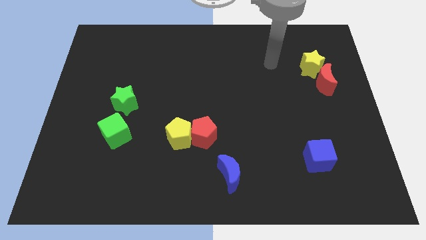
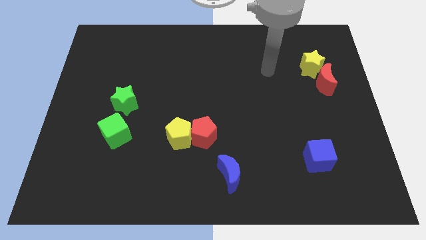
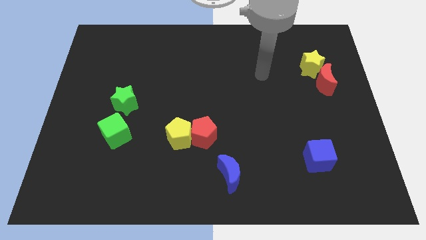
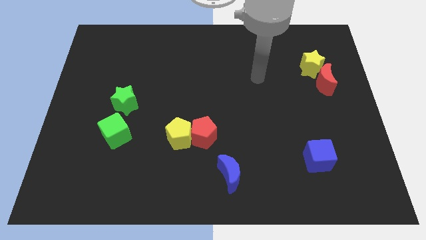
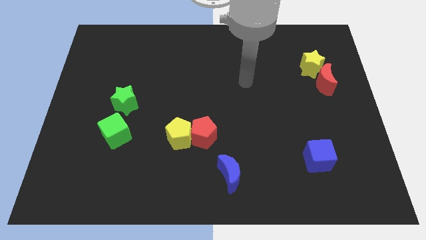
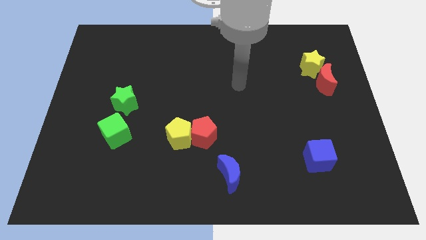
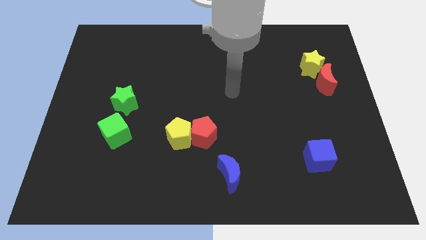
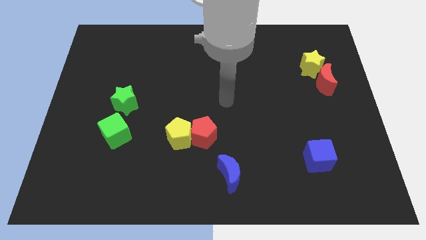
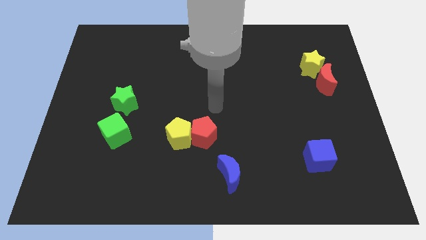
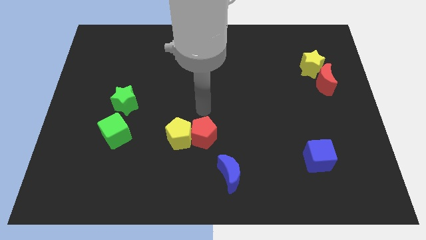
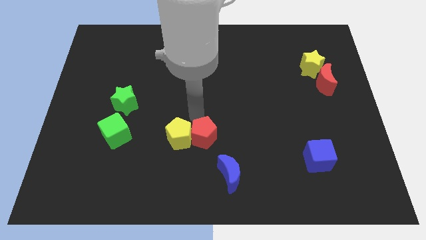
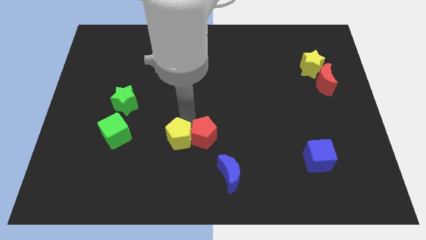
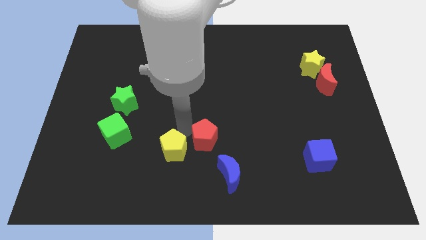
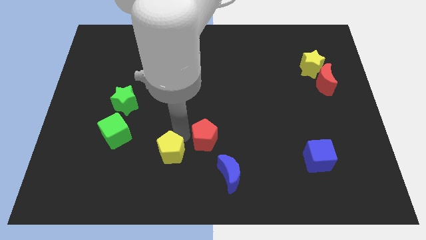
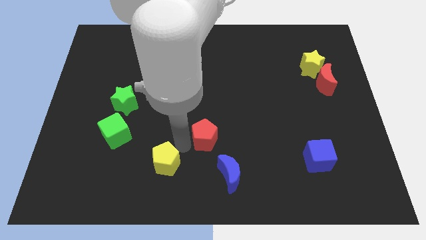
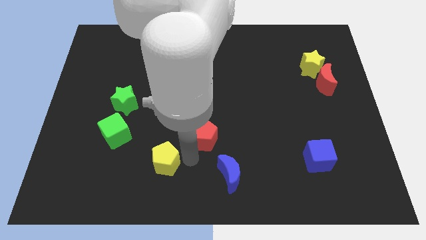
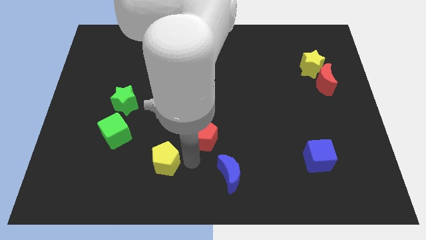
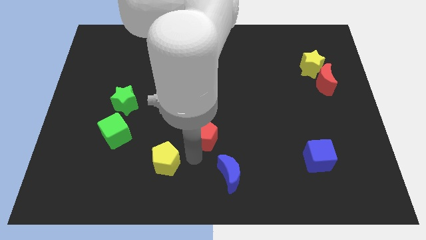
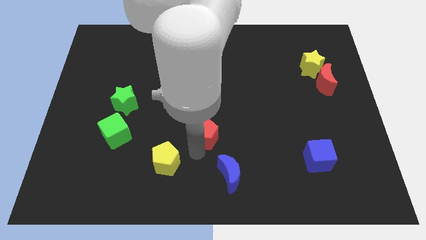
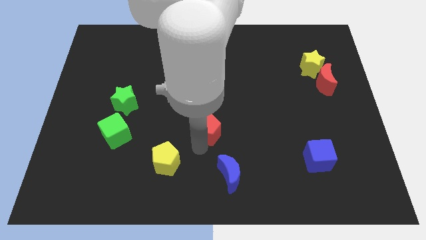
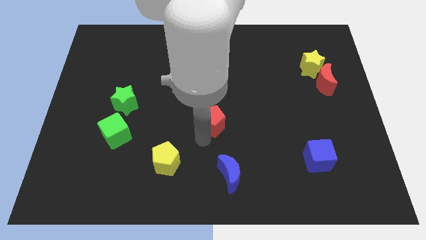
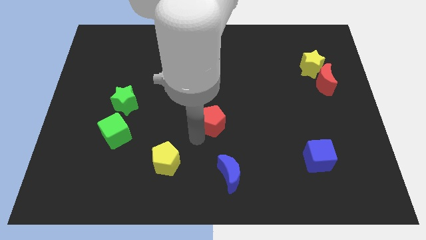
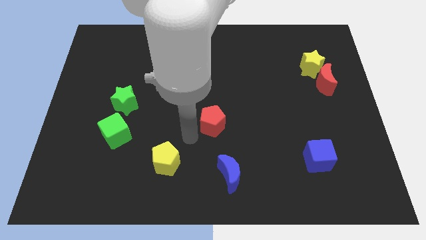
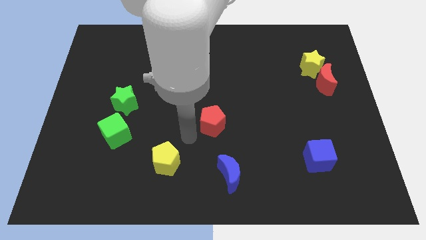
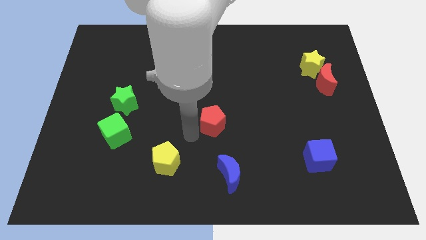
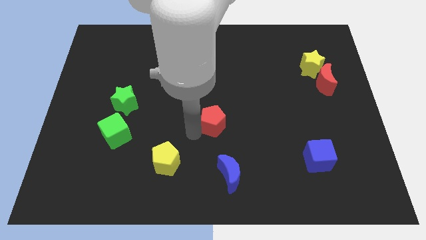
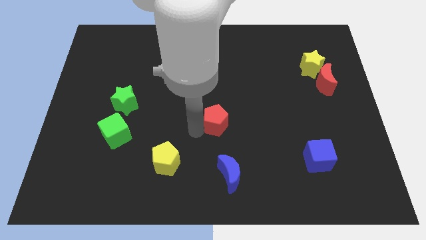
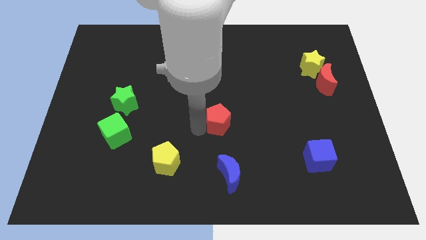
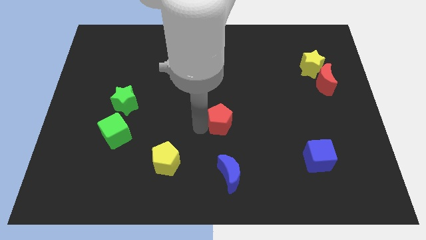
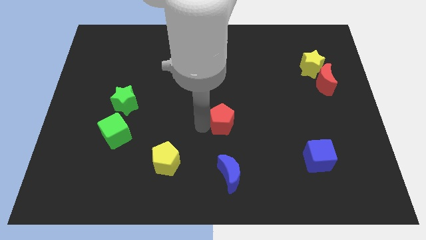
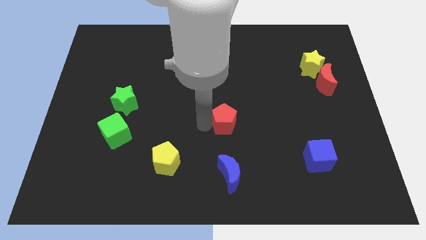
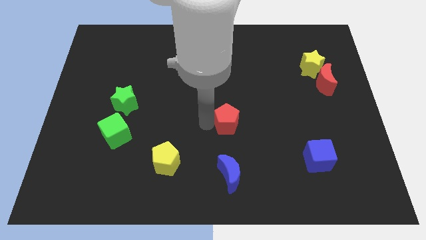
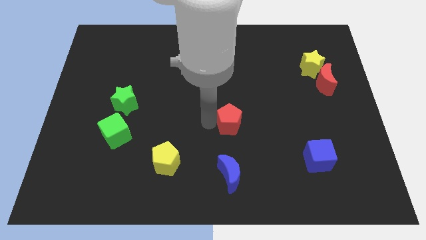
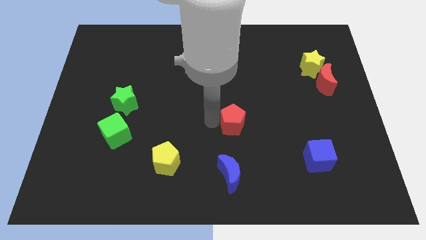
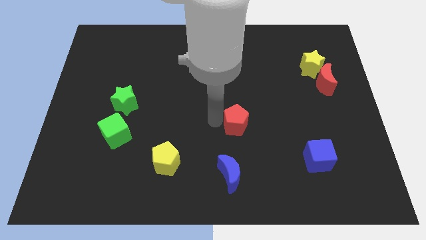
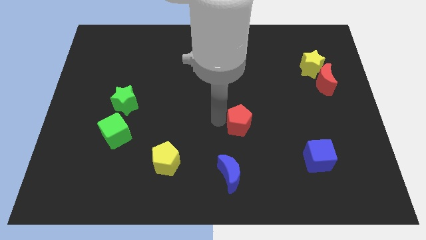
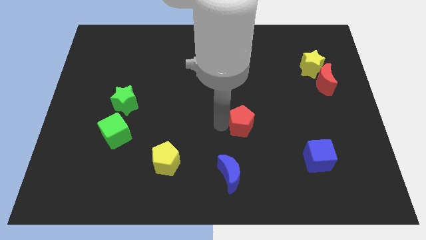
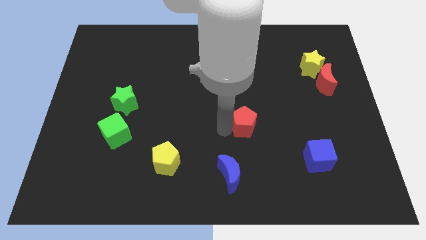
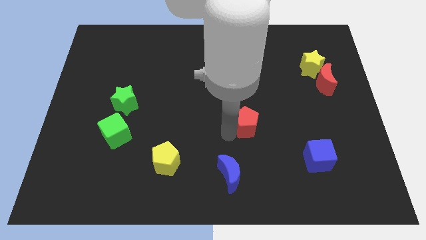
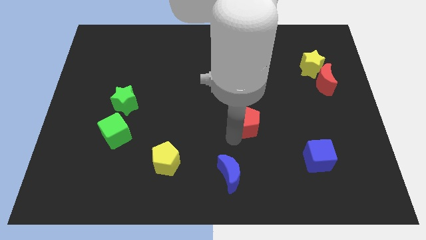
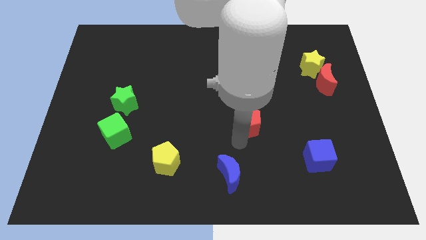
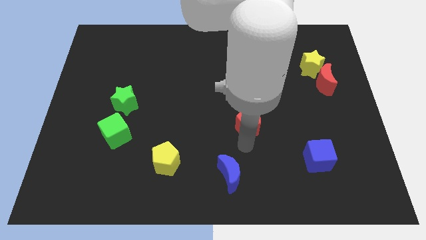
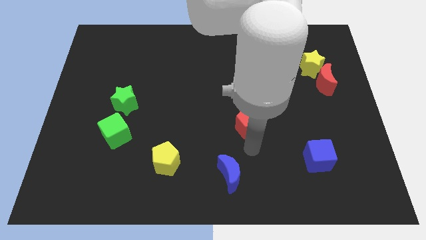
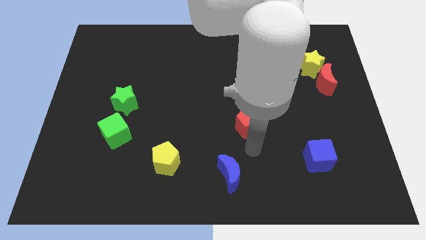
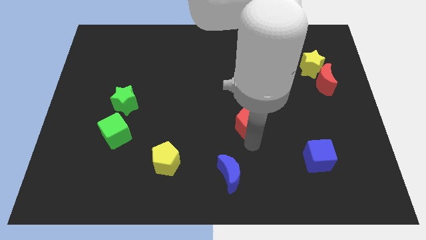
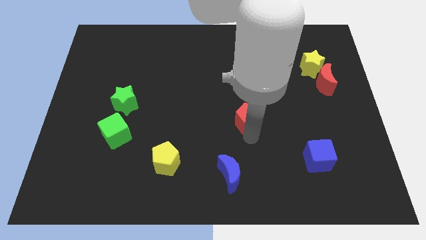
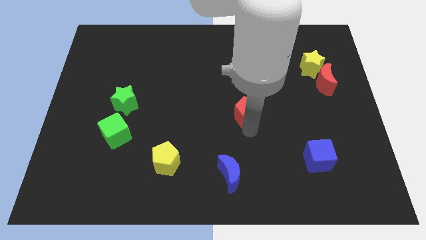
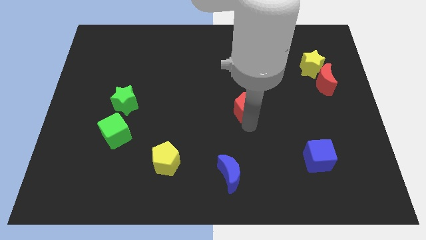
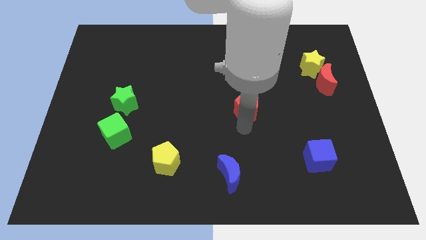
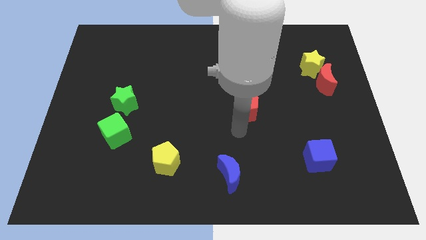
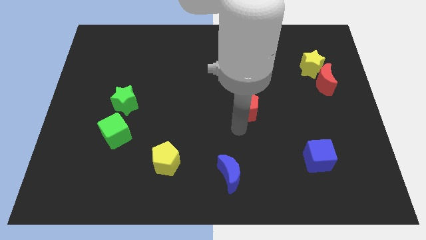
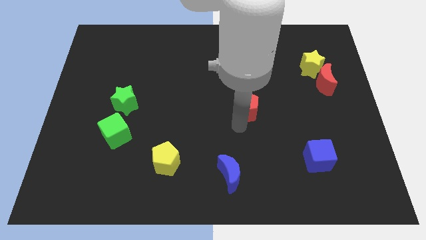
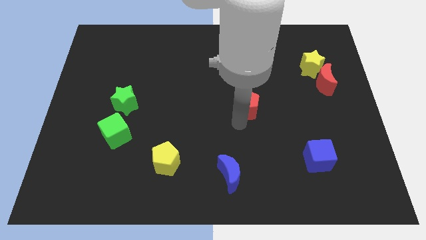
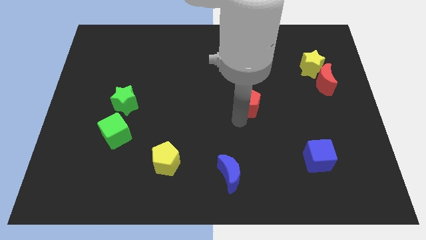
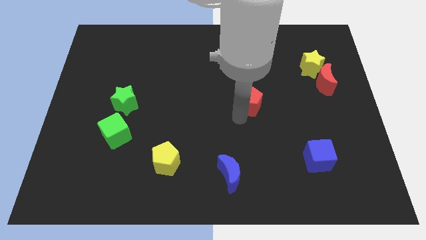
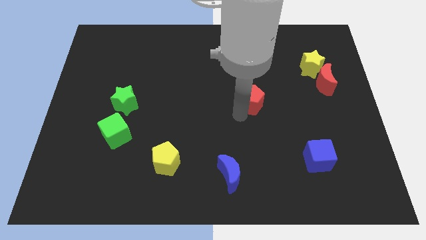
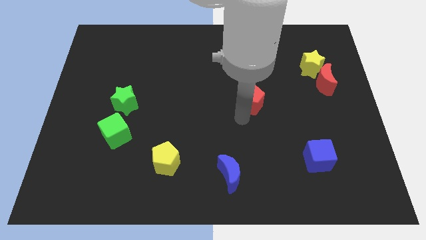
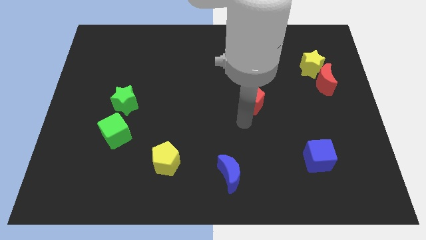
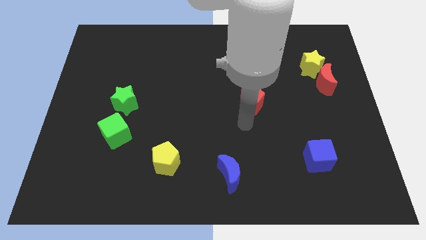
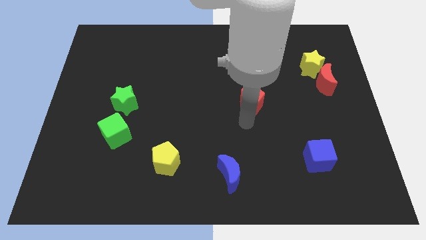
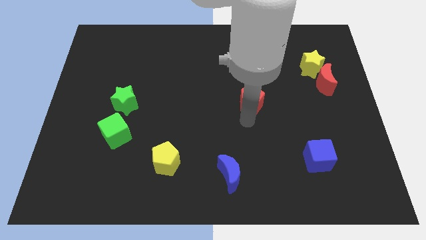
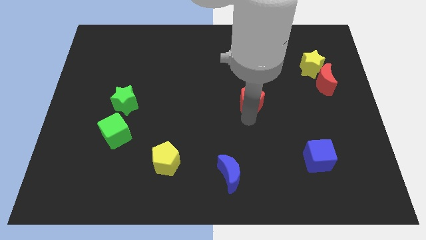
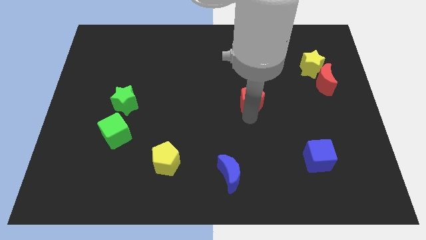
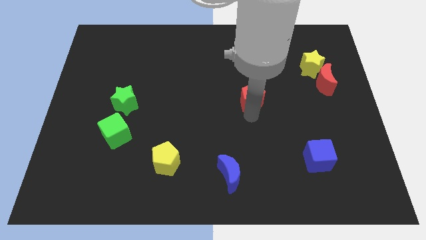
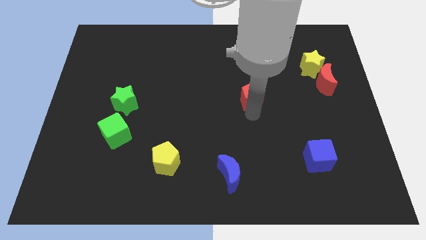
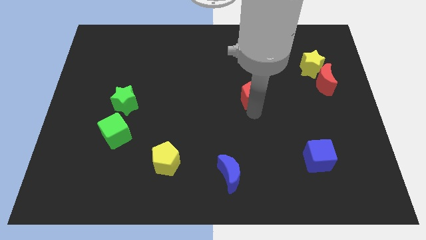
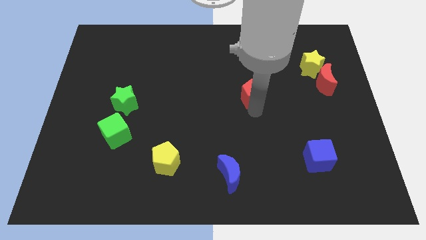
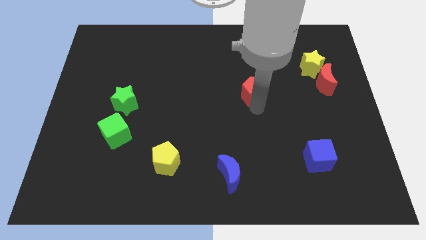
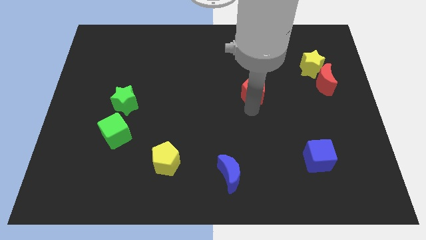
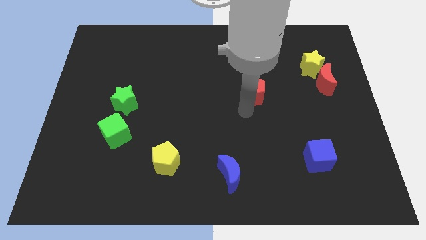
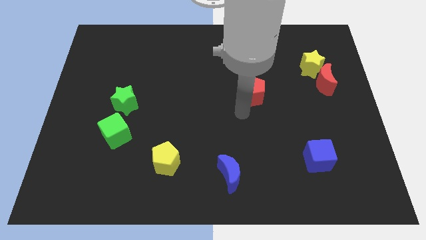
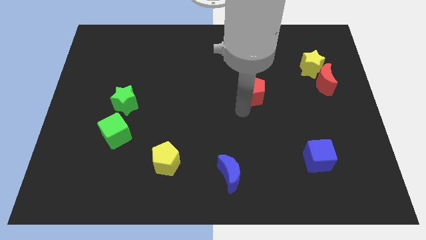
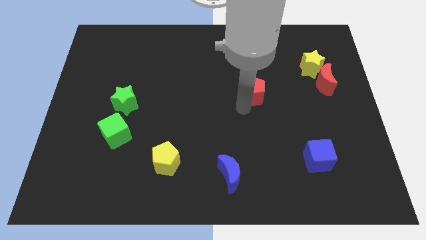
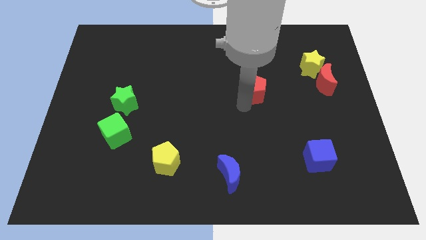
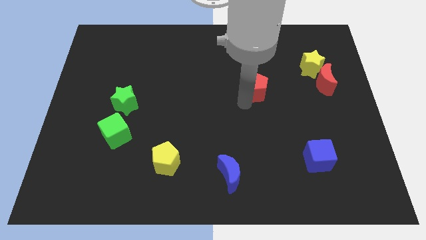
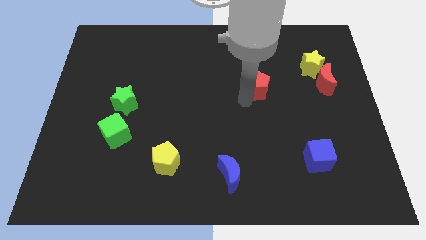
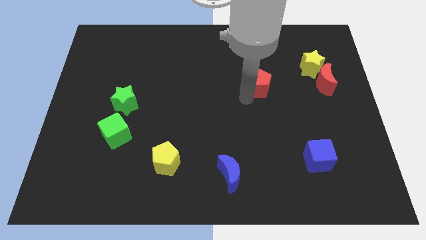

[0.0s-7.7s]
push the red pentagon diagonally upwards and to the right

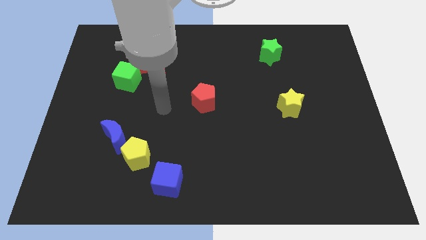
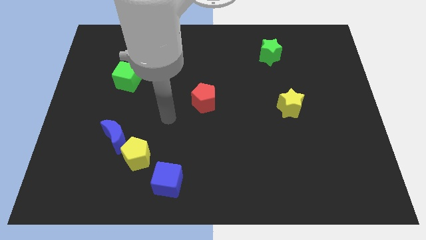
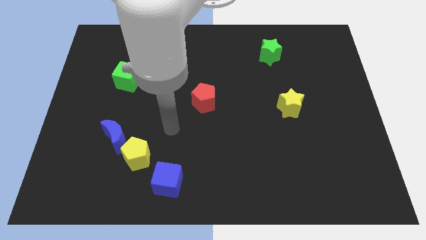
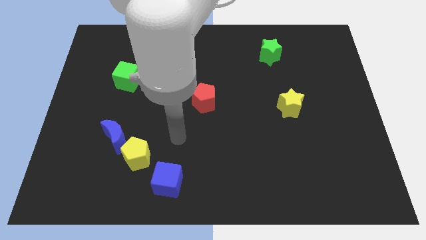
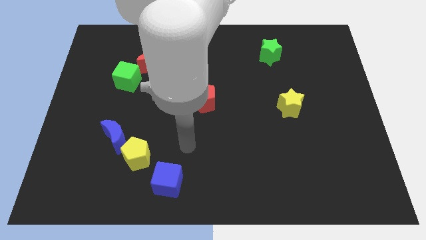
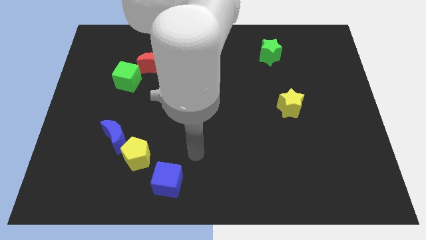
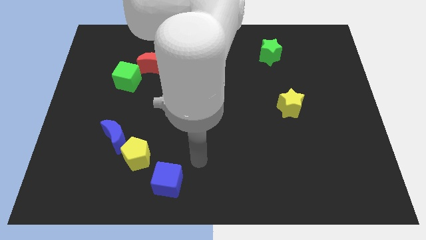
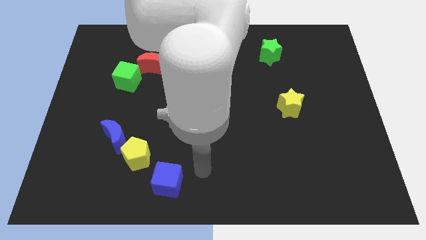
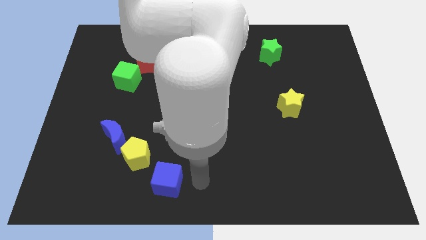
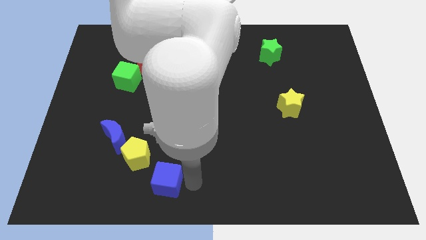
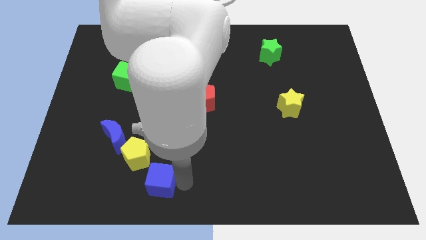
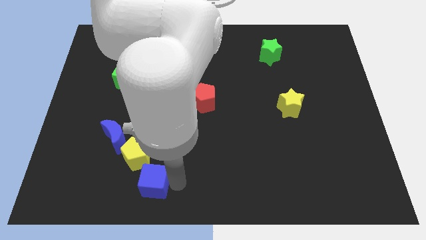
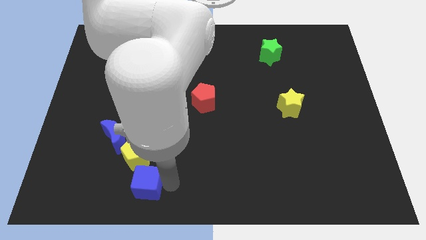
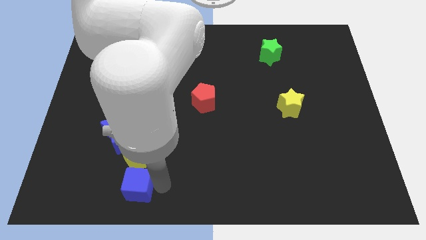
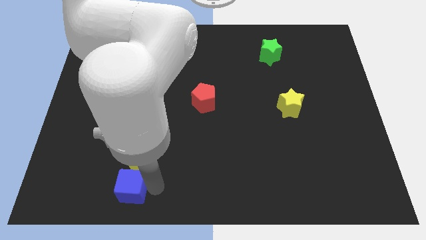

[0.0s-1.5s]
slide the blue cube left slightly
